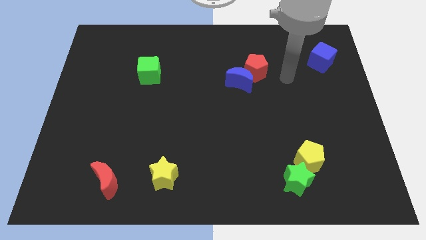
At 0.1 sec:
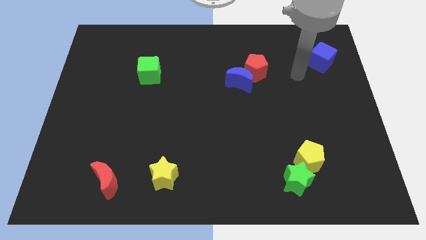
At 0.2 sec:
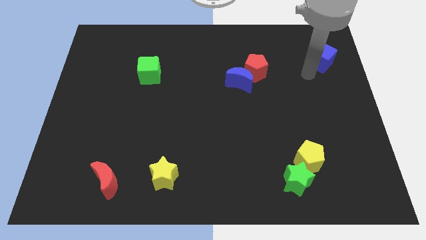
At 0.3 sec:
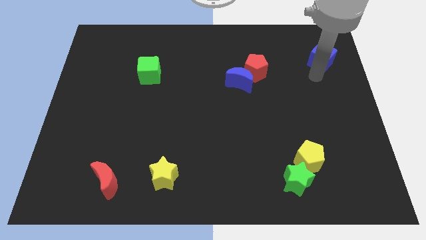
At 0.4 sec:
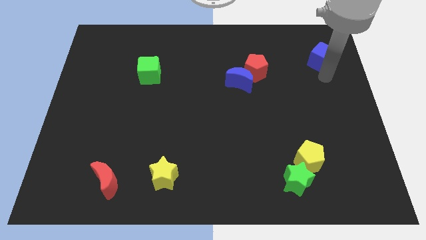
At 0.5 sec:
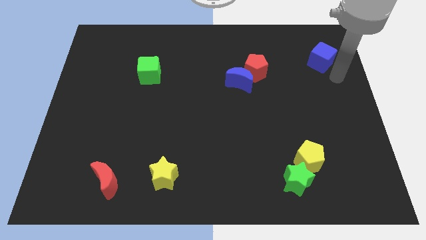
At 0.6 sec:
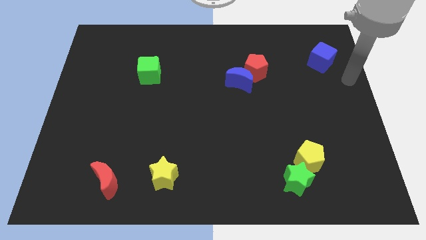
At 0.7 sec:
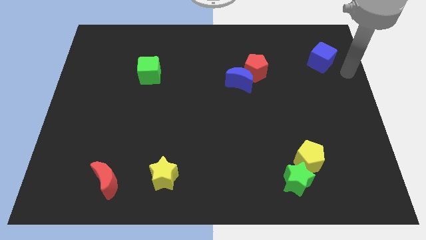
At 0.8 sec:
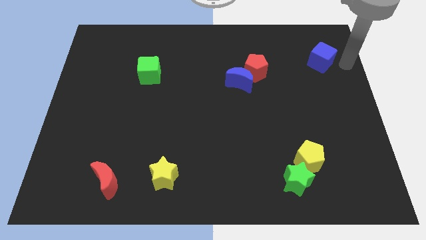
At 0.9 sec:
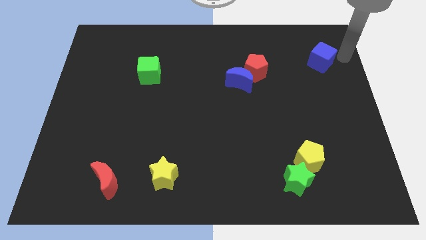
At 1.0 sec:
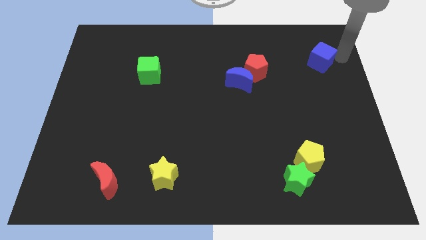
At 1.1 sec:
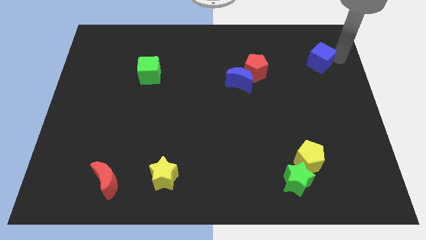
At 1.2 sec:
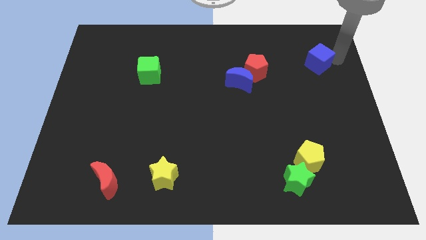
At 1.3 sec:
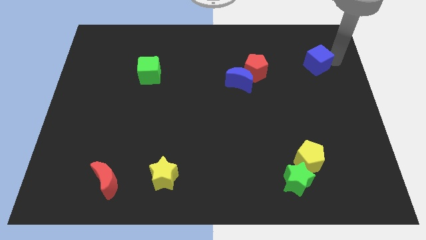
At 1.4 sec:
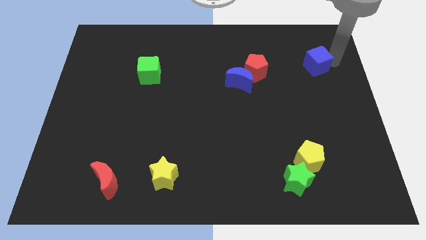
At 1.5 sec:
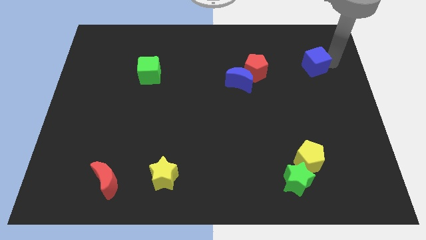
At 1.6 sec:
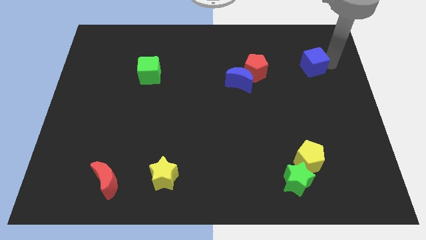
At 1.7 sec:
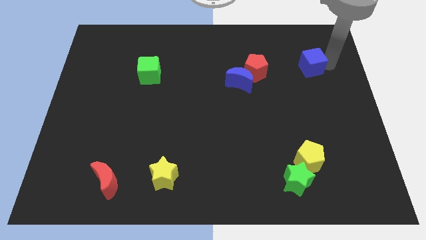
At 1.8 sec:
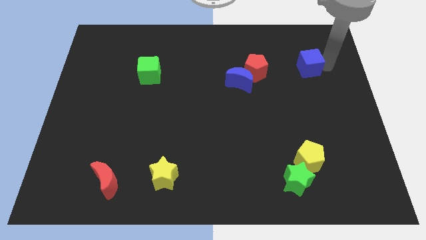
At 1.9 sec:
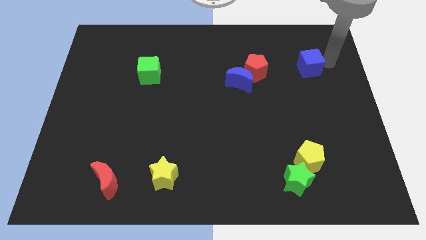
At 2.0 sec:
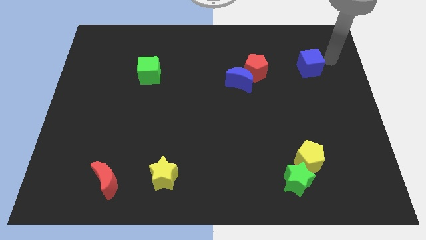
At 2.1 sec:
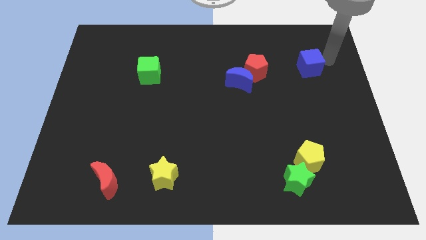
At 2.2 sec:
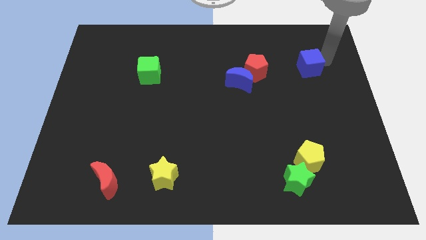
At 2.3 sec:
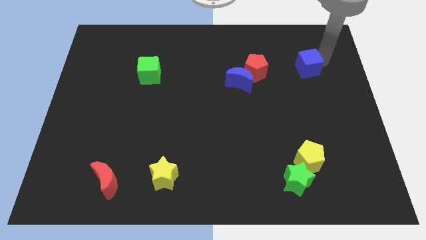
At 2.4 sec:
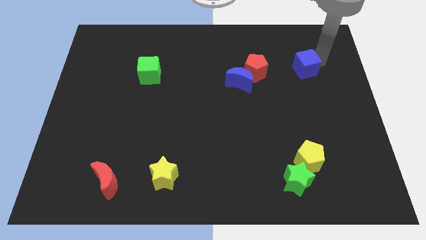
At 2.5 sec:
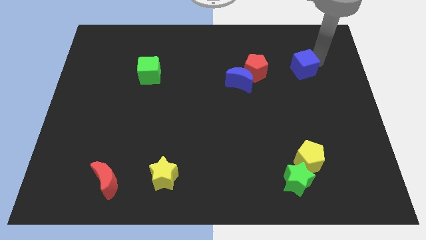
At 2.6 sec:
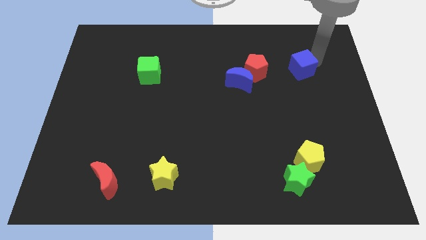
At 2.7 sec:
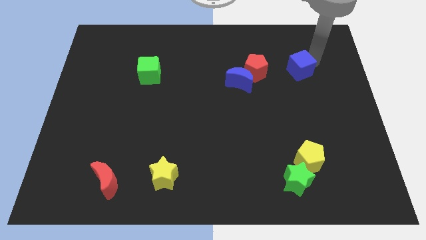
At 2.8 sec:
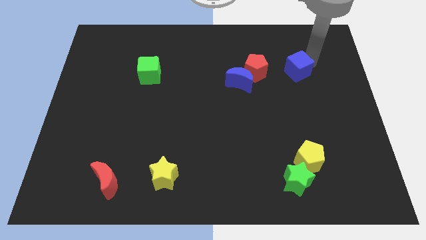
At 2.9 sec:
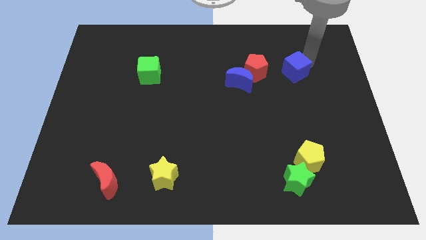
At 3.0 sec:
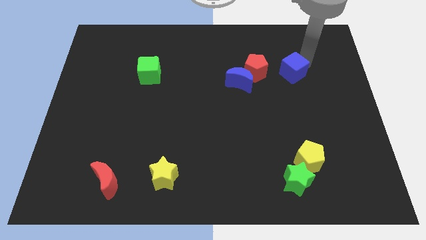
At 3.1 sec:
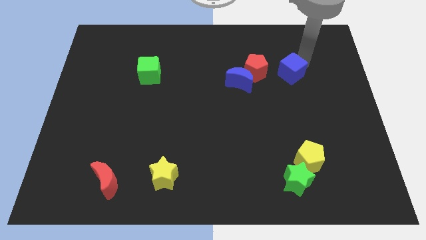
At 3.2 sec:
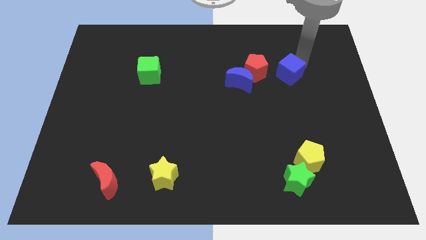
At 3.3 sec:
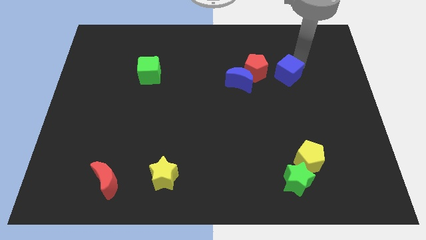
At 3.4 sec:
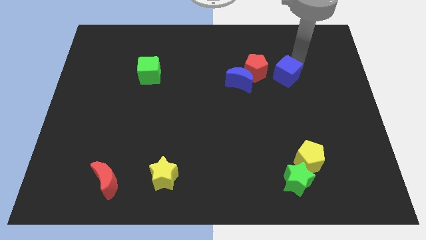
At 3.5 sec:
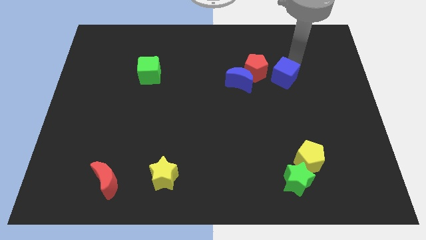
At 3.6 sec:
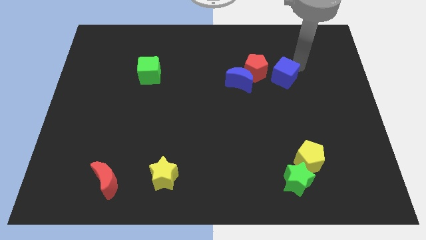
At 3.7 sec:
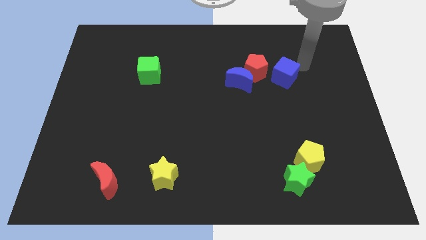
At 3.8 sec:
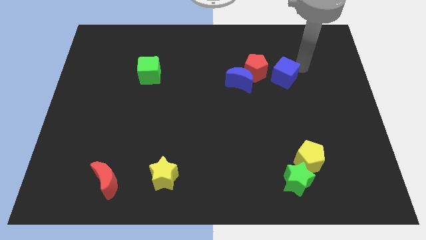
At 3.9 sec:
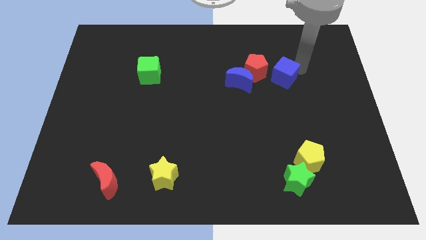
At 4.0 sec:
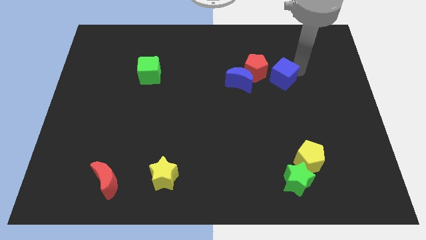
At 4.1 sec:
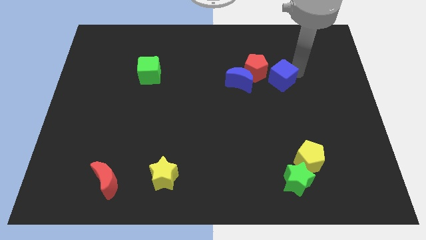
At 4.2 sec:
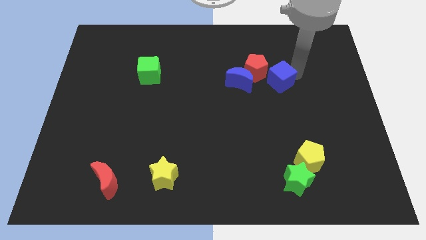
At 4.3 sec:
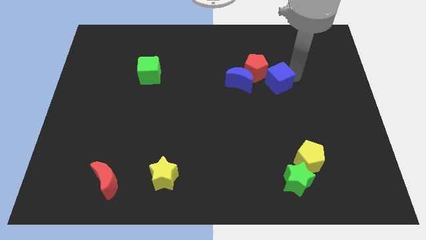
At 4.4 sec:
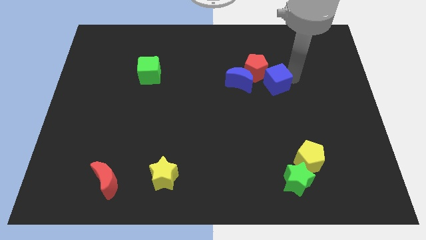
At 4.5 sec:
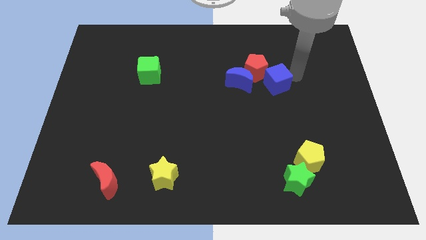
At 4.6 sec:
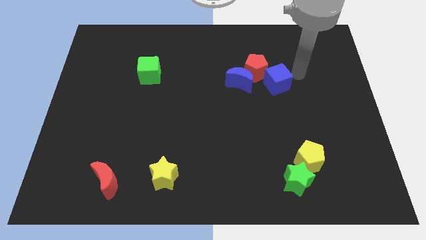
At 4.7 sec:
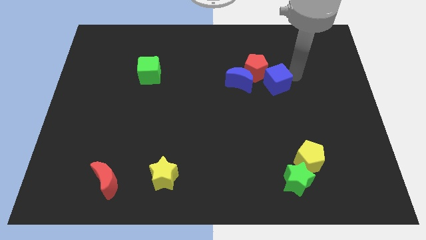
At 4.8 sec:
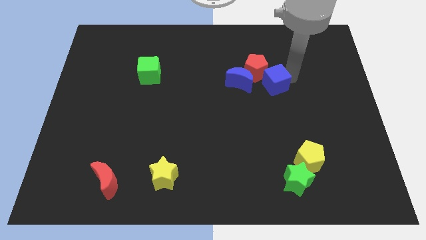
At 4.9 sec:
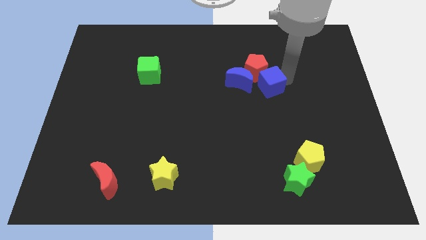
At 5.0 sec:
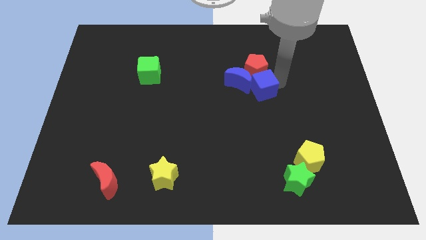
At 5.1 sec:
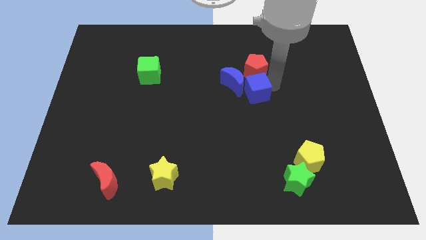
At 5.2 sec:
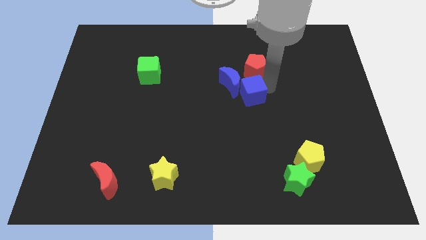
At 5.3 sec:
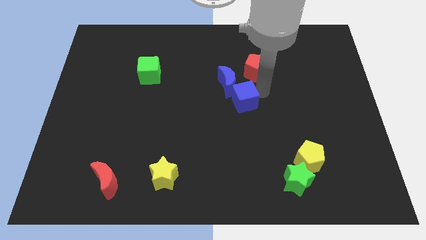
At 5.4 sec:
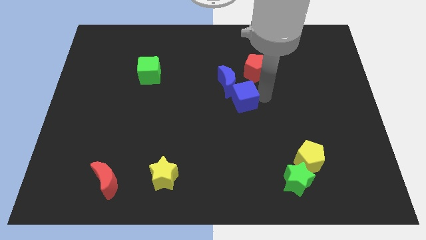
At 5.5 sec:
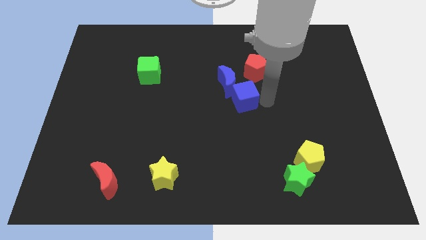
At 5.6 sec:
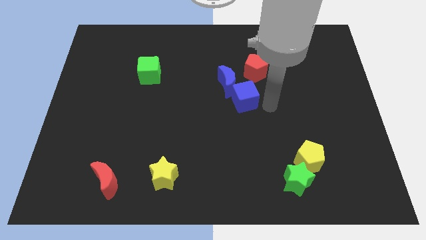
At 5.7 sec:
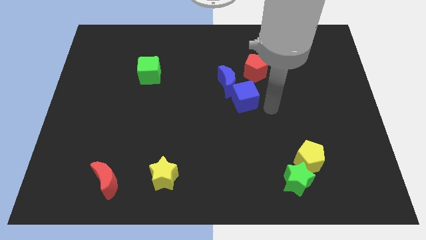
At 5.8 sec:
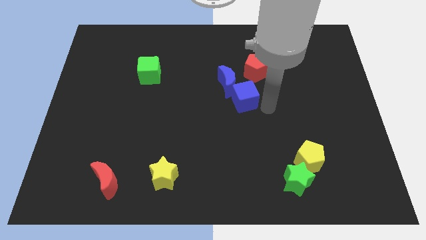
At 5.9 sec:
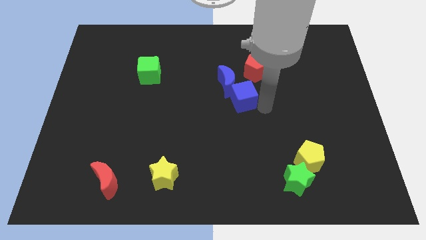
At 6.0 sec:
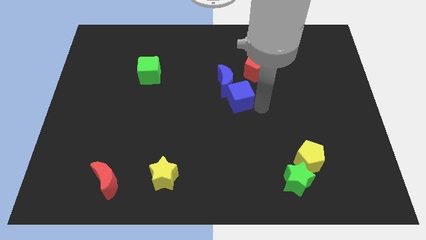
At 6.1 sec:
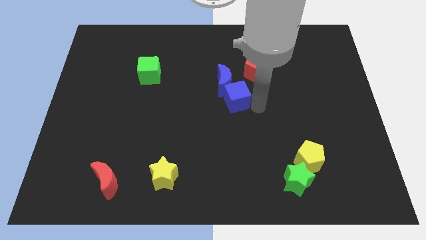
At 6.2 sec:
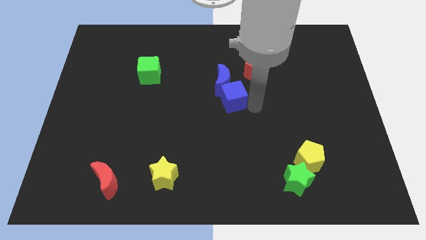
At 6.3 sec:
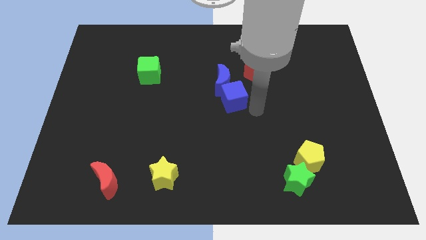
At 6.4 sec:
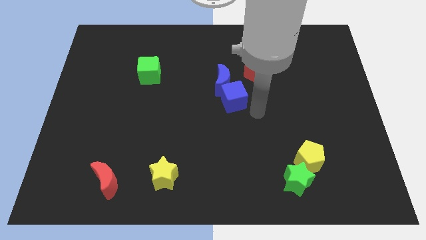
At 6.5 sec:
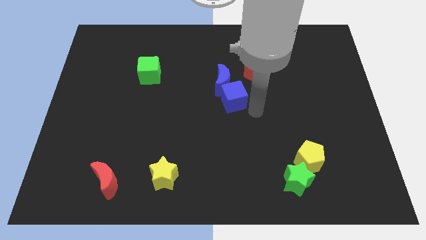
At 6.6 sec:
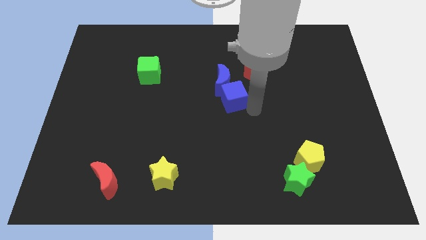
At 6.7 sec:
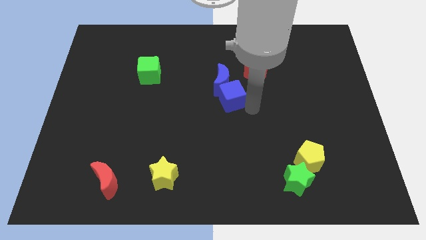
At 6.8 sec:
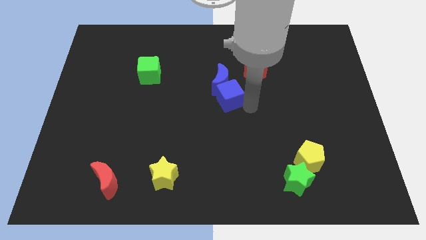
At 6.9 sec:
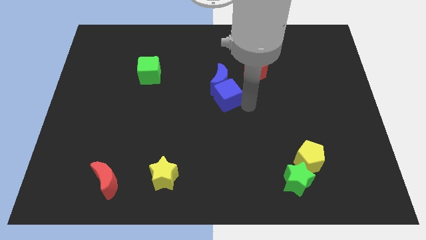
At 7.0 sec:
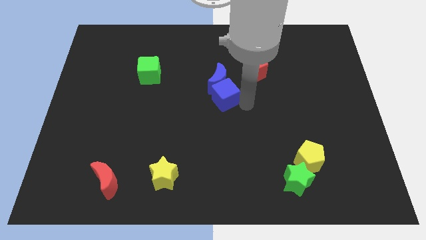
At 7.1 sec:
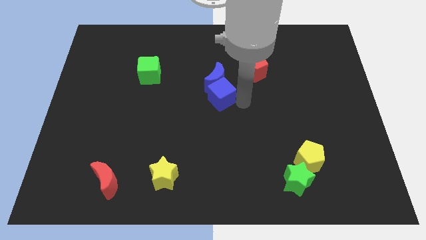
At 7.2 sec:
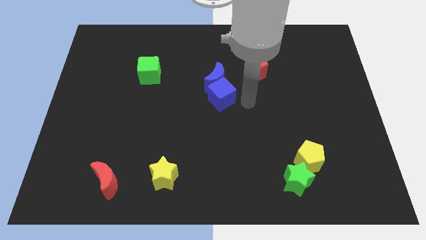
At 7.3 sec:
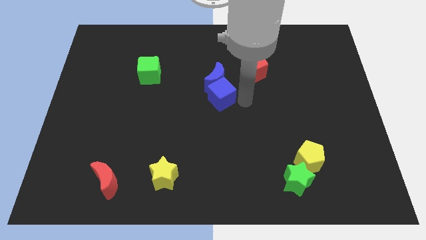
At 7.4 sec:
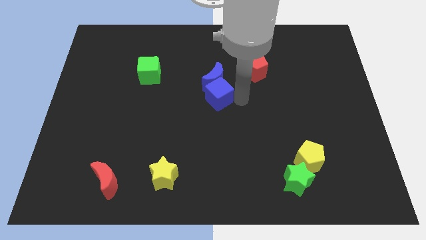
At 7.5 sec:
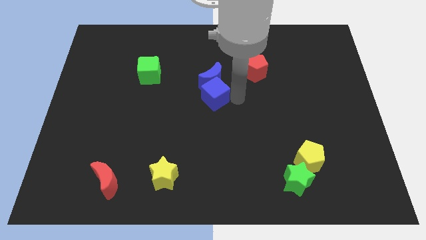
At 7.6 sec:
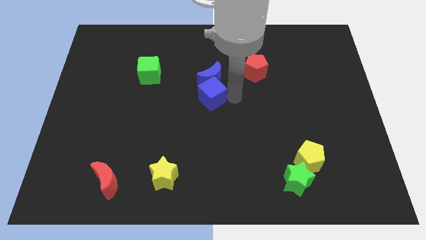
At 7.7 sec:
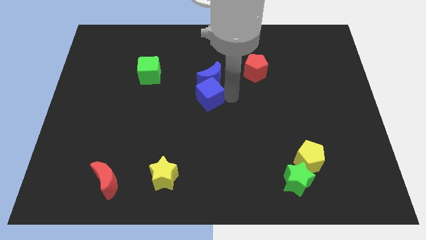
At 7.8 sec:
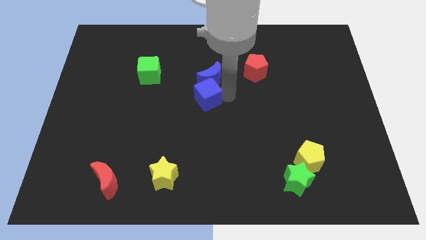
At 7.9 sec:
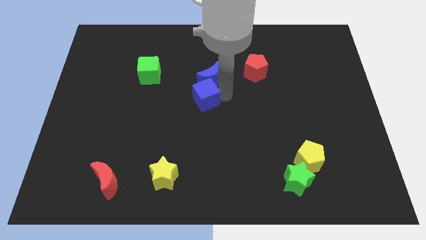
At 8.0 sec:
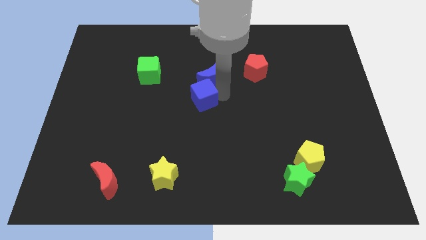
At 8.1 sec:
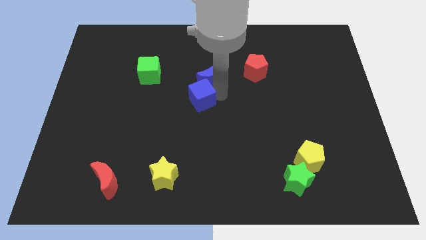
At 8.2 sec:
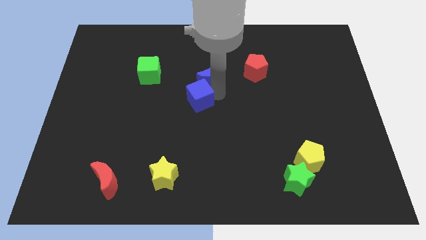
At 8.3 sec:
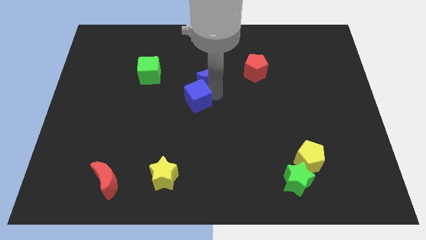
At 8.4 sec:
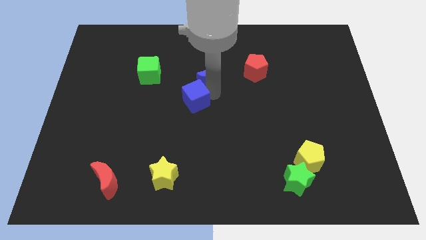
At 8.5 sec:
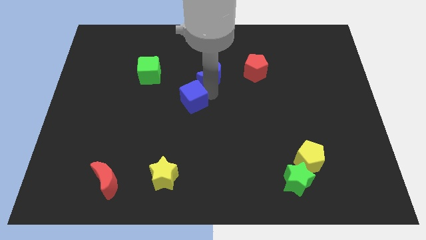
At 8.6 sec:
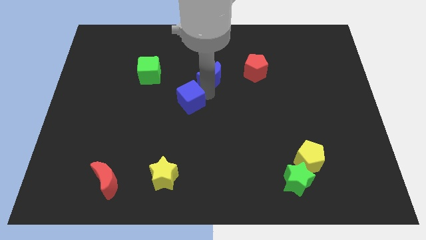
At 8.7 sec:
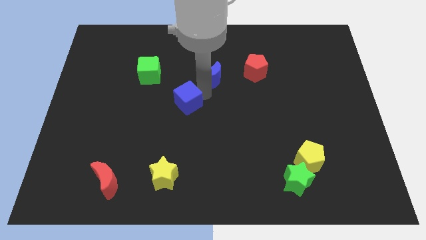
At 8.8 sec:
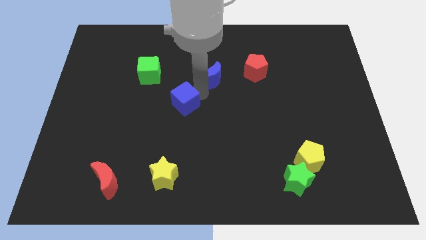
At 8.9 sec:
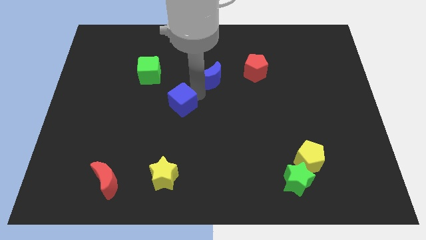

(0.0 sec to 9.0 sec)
slide the blue cube diagonally down and to the right of the green cube
